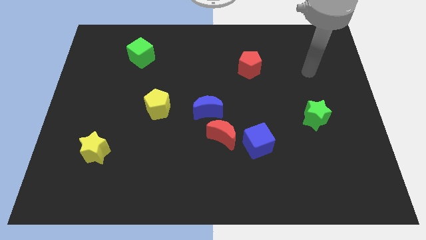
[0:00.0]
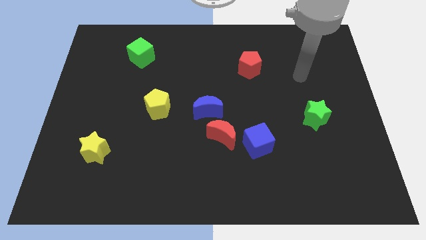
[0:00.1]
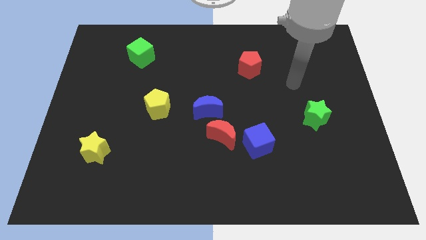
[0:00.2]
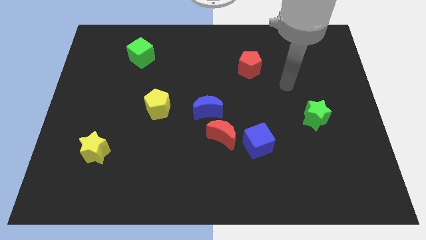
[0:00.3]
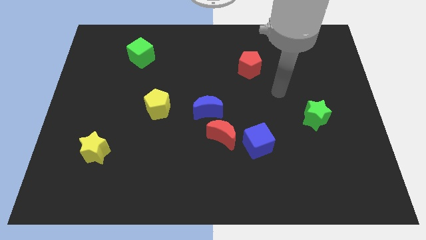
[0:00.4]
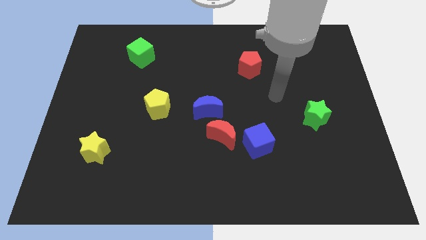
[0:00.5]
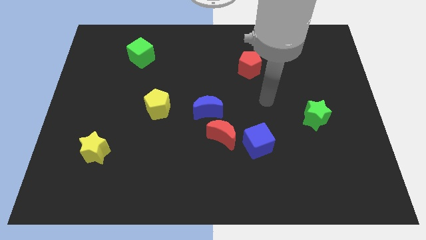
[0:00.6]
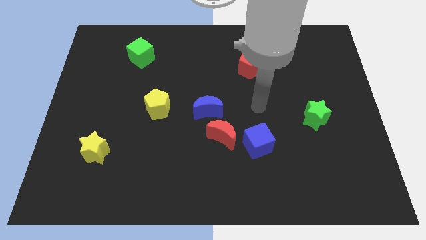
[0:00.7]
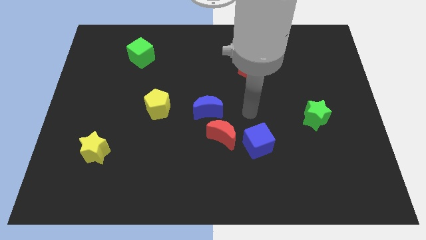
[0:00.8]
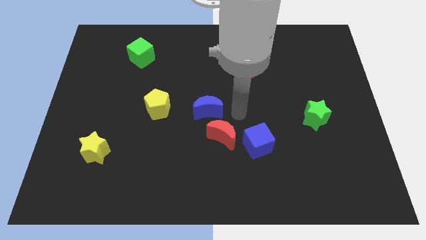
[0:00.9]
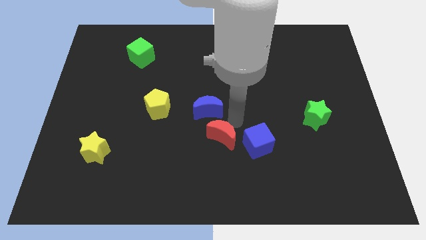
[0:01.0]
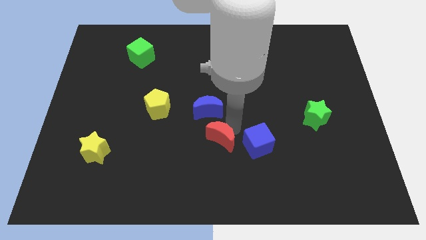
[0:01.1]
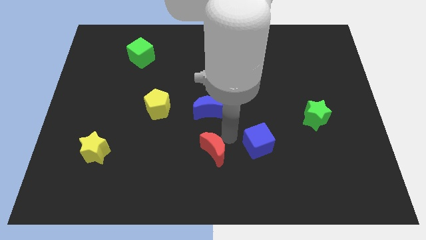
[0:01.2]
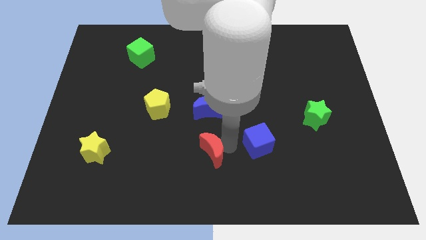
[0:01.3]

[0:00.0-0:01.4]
separate the blue cube from the red moon

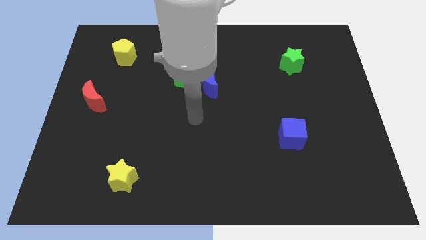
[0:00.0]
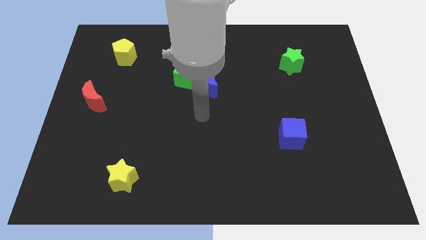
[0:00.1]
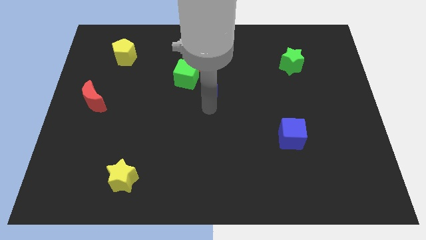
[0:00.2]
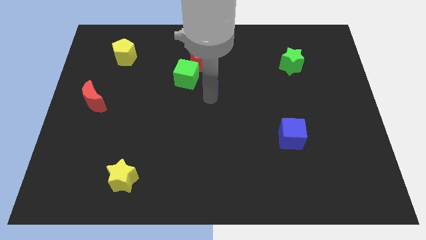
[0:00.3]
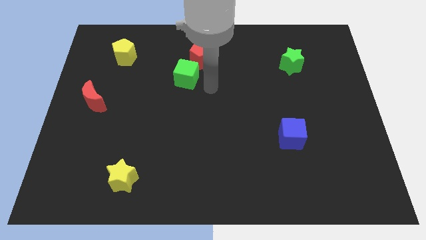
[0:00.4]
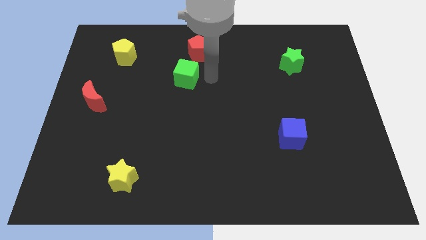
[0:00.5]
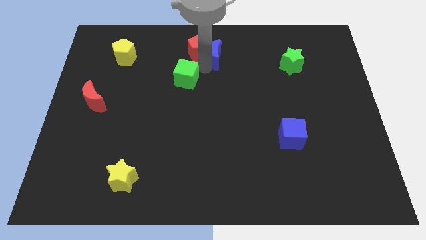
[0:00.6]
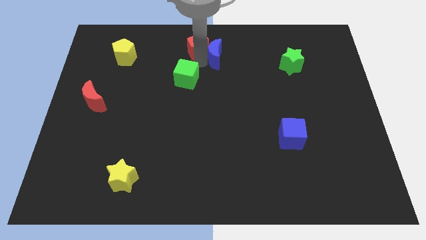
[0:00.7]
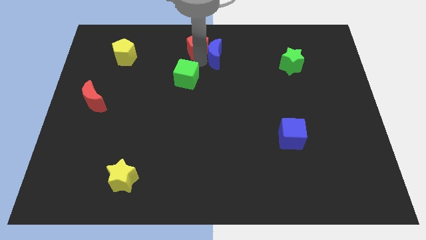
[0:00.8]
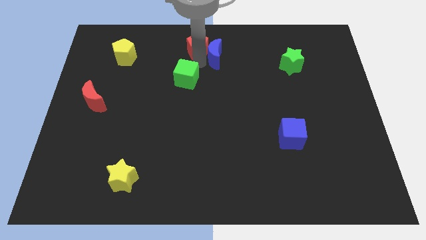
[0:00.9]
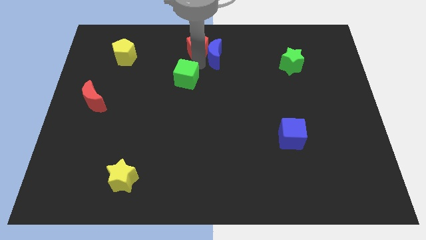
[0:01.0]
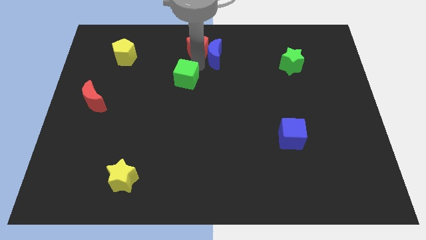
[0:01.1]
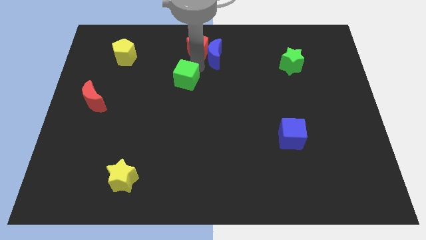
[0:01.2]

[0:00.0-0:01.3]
pull the green cube apart from the blue moon and red pentagon

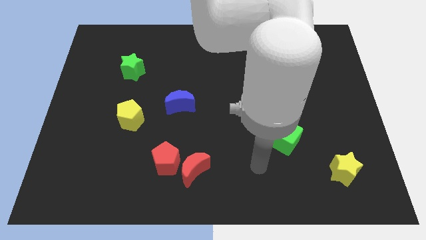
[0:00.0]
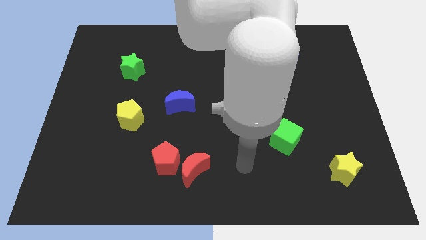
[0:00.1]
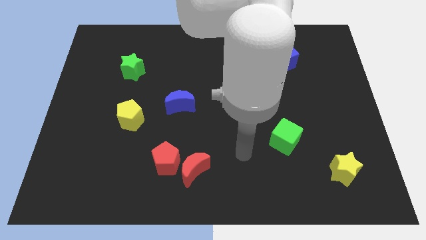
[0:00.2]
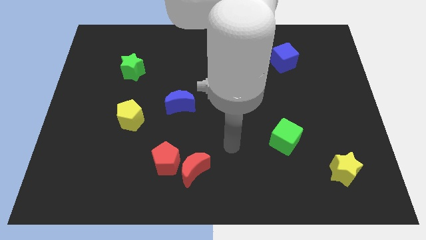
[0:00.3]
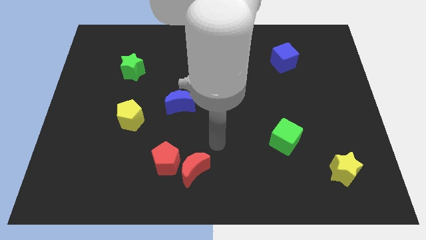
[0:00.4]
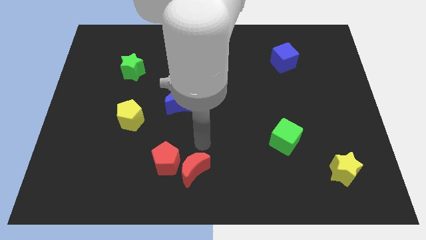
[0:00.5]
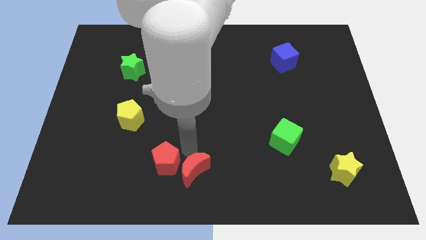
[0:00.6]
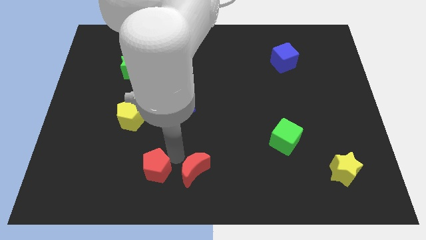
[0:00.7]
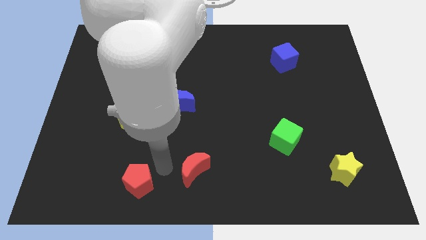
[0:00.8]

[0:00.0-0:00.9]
separate the red moon from the red pentagon

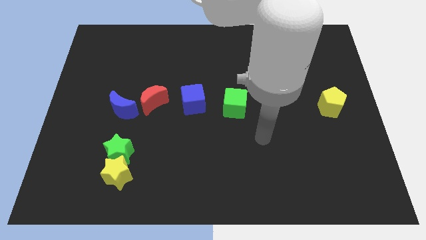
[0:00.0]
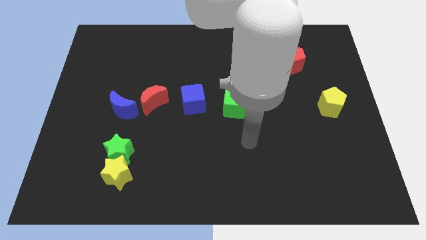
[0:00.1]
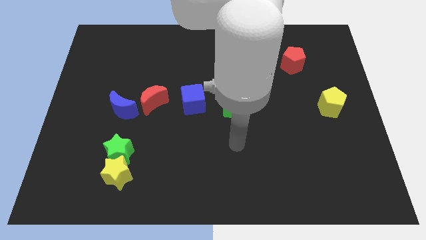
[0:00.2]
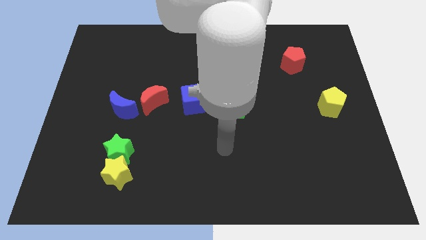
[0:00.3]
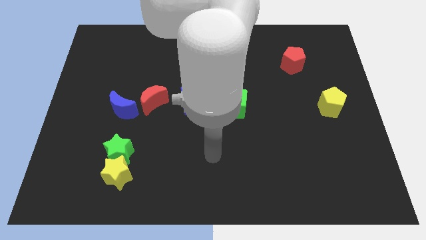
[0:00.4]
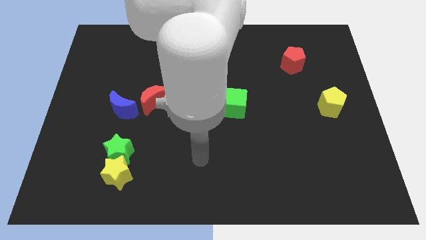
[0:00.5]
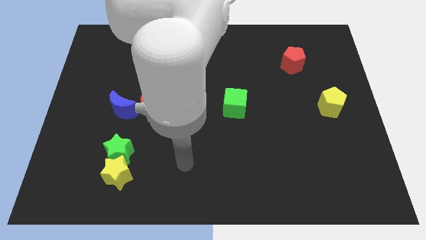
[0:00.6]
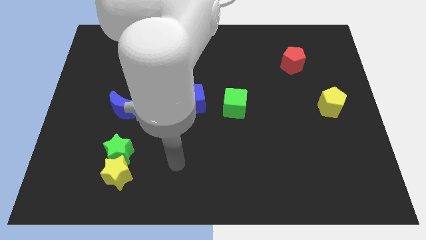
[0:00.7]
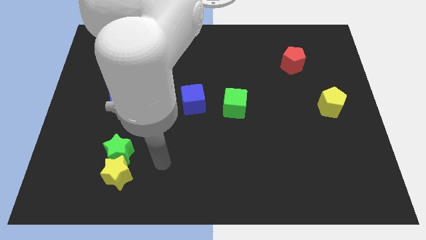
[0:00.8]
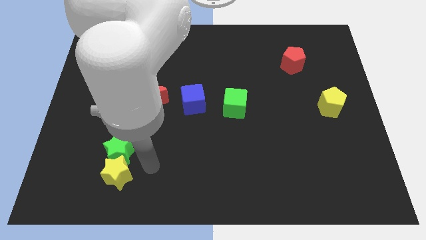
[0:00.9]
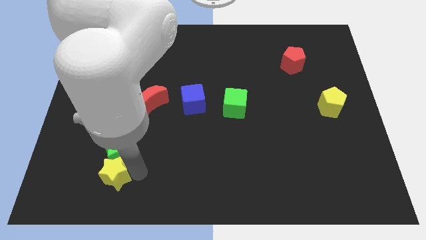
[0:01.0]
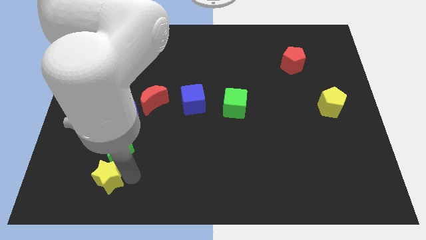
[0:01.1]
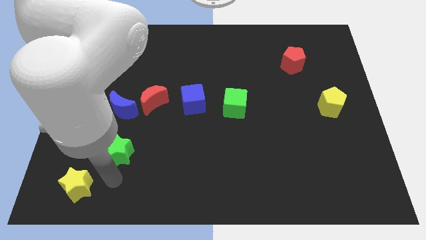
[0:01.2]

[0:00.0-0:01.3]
move the green star away from the yellow star

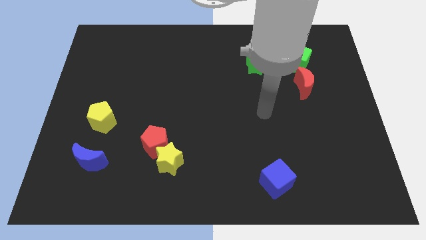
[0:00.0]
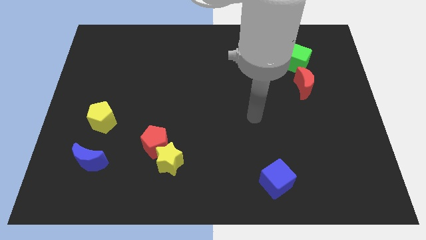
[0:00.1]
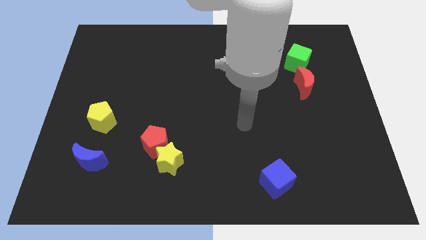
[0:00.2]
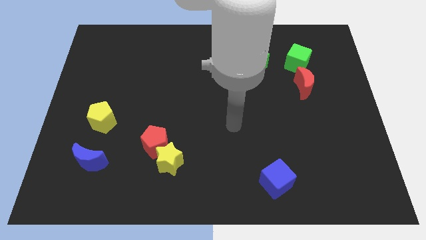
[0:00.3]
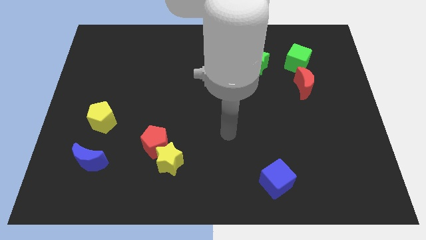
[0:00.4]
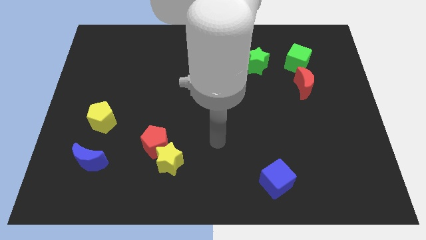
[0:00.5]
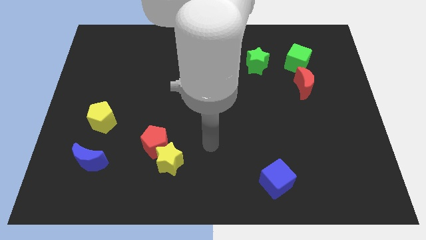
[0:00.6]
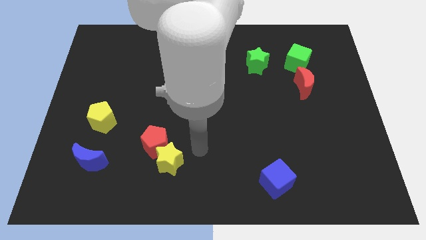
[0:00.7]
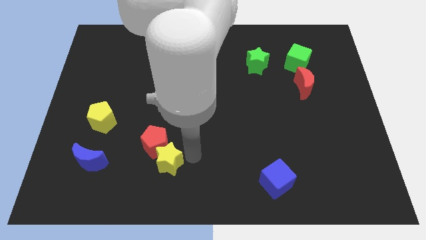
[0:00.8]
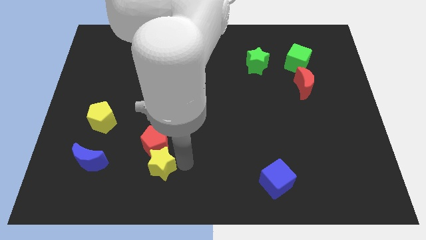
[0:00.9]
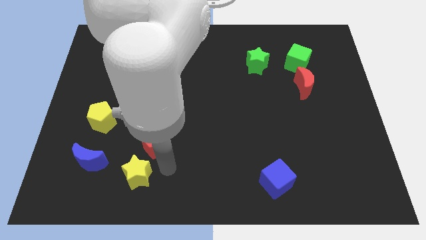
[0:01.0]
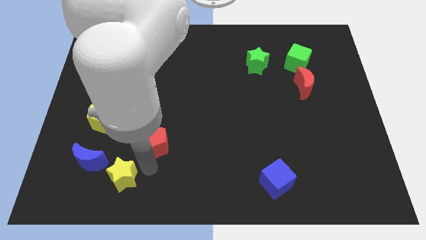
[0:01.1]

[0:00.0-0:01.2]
move the red pentagon away from the yellow star

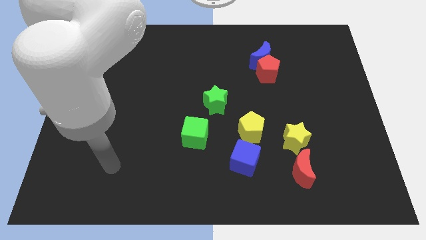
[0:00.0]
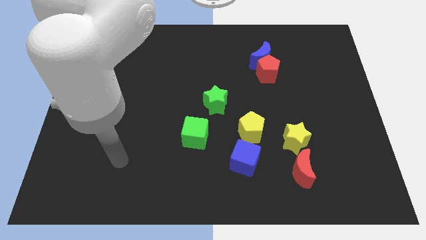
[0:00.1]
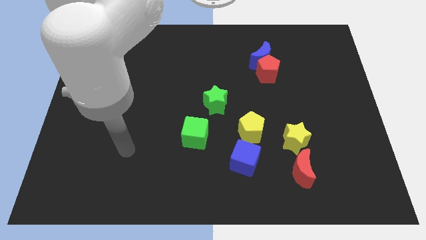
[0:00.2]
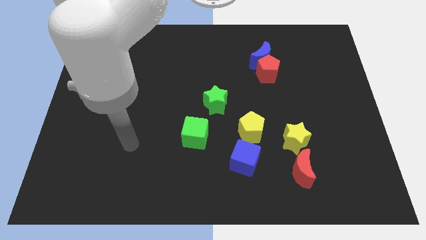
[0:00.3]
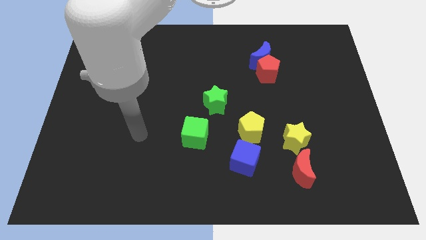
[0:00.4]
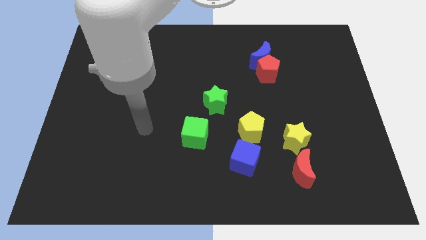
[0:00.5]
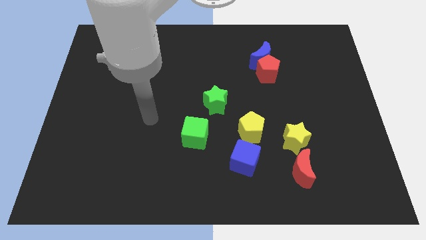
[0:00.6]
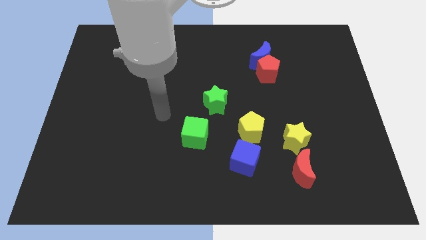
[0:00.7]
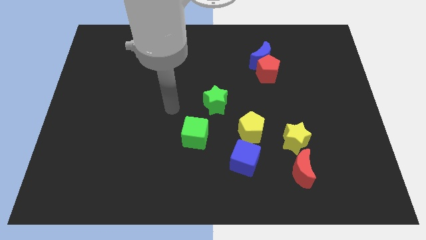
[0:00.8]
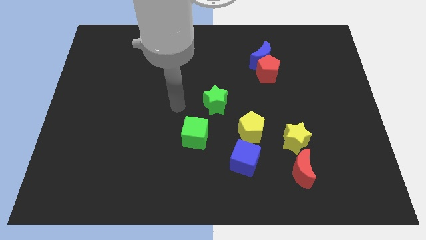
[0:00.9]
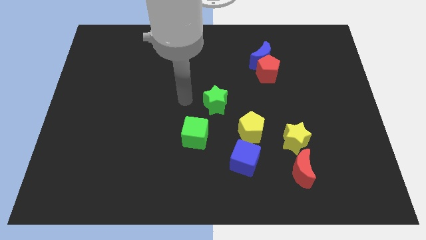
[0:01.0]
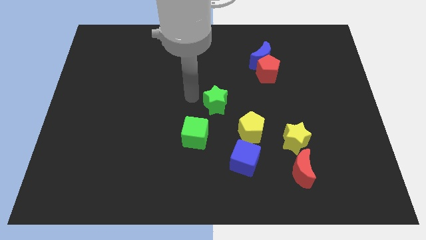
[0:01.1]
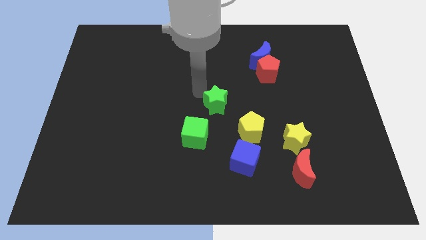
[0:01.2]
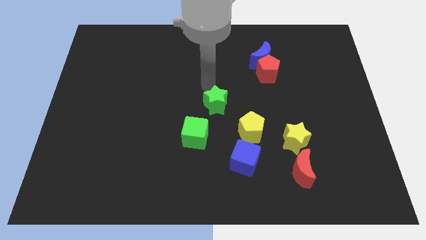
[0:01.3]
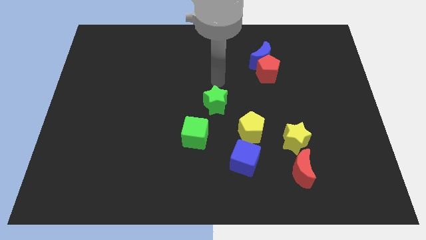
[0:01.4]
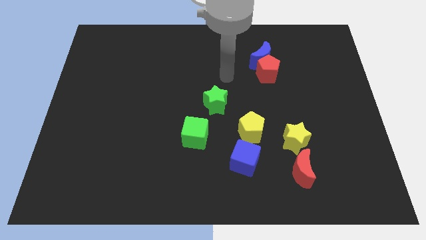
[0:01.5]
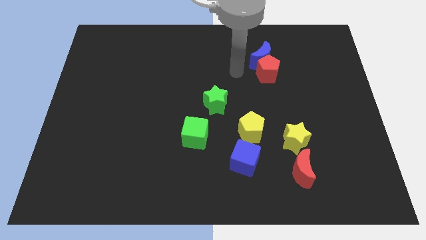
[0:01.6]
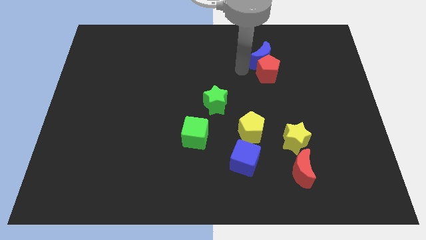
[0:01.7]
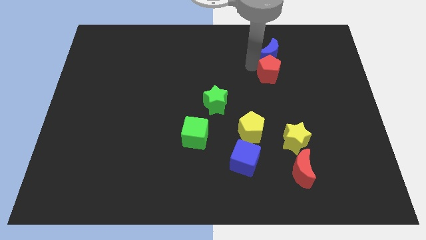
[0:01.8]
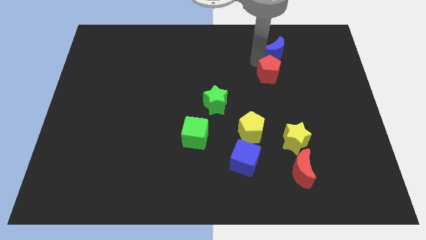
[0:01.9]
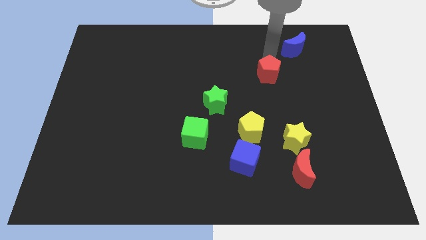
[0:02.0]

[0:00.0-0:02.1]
separate the red pentagon from the blue moon

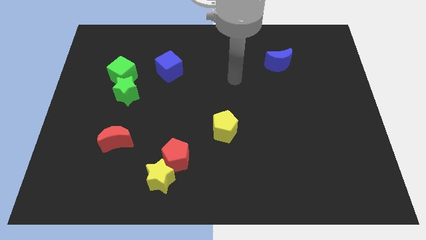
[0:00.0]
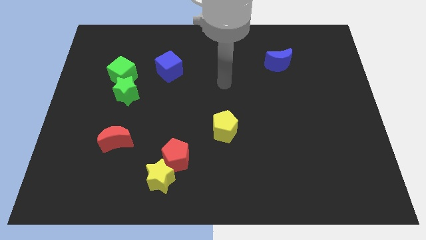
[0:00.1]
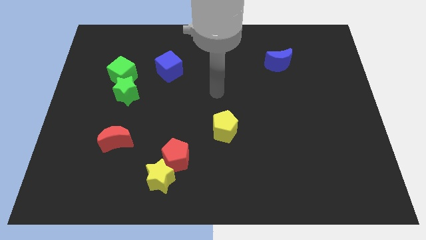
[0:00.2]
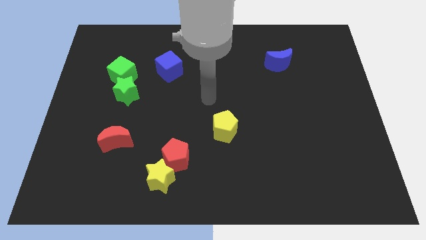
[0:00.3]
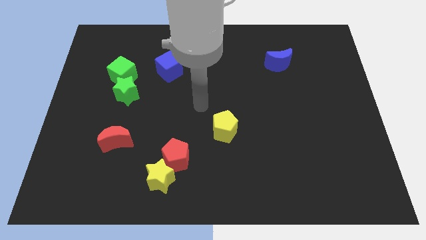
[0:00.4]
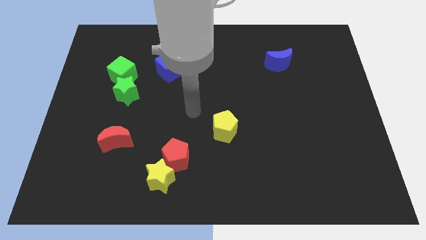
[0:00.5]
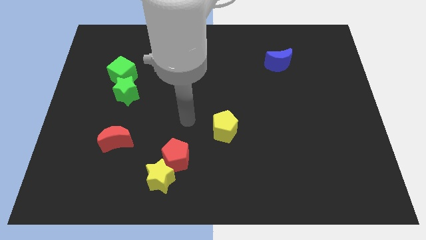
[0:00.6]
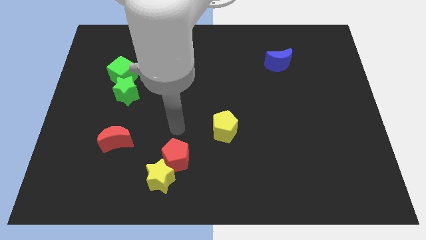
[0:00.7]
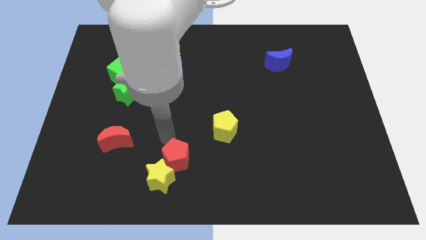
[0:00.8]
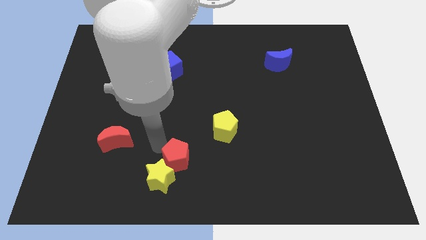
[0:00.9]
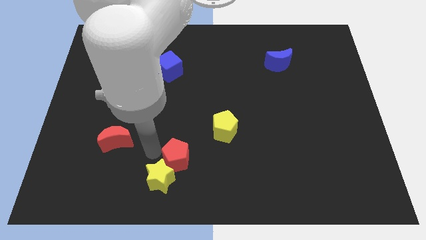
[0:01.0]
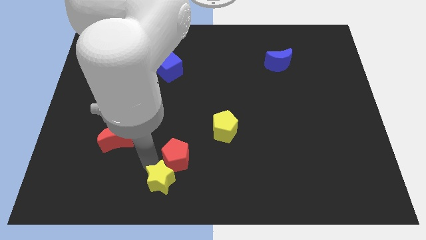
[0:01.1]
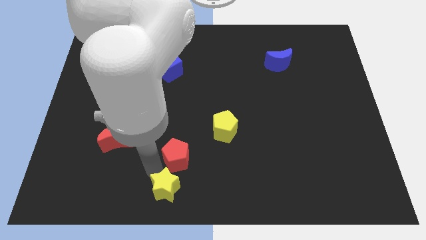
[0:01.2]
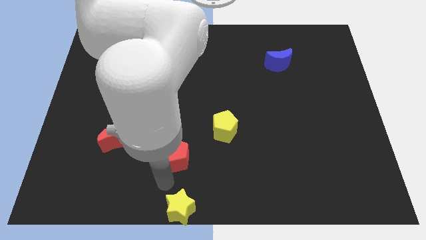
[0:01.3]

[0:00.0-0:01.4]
pull the red pentagon apart from the yellow star
